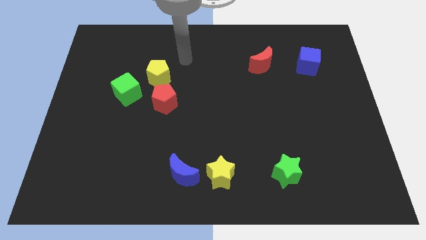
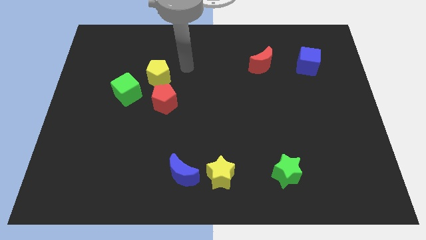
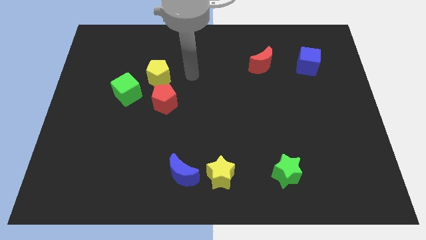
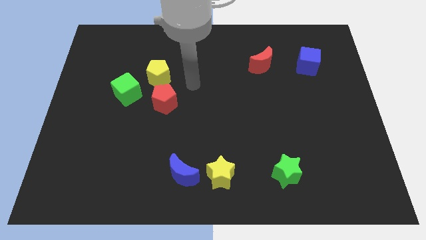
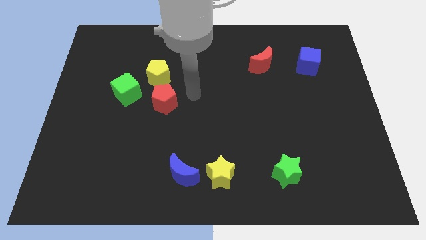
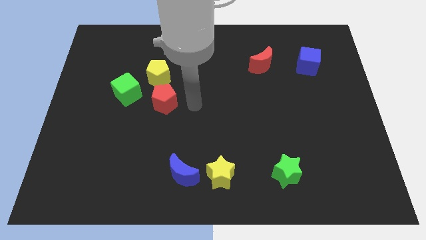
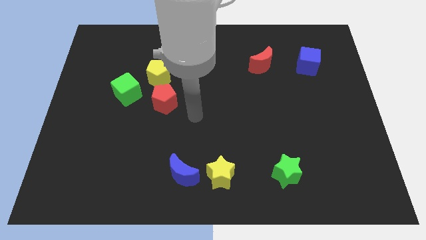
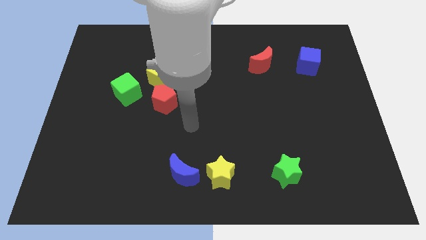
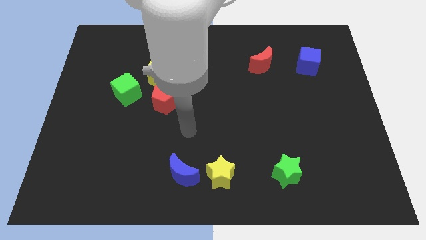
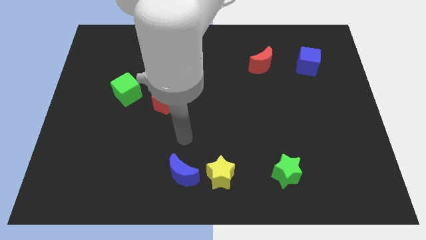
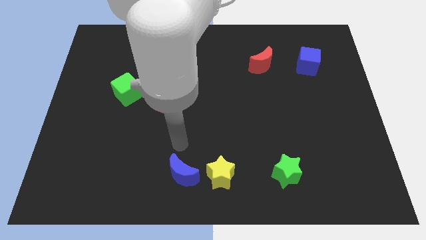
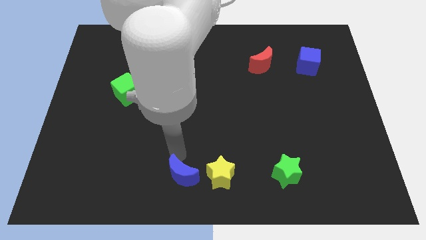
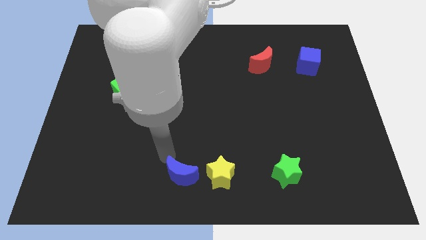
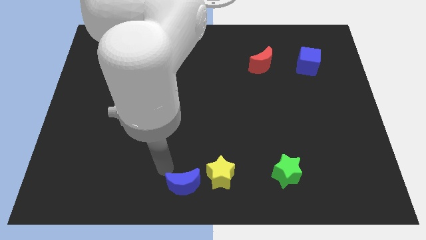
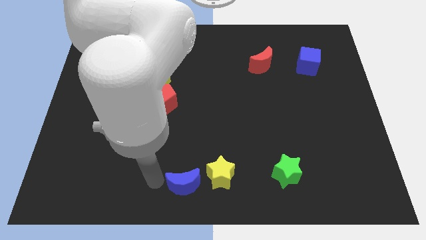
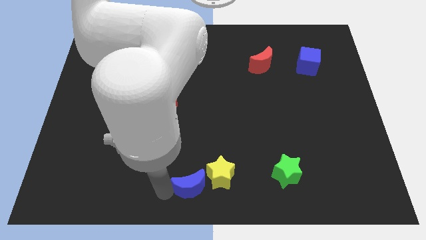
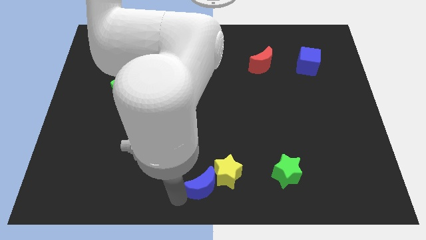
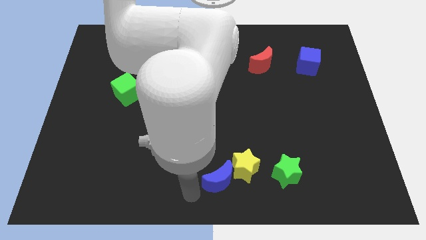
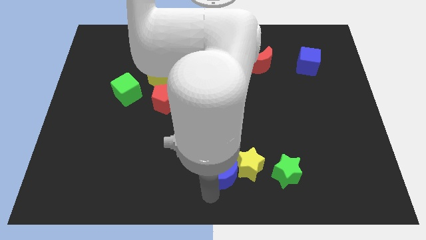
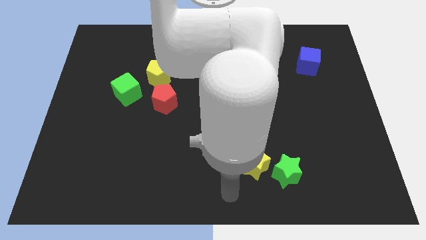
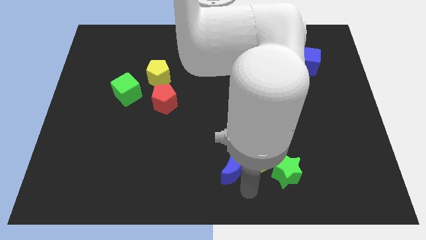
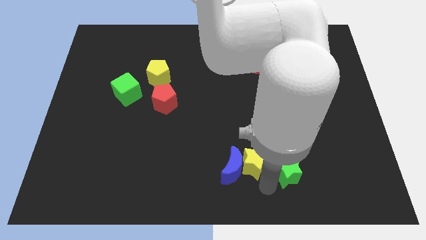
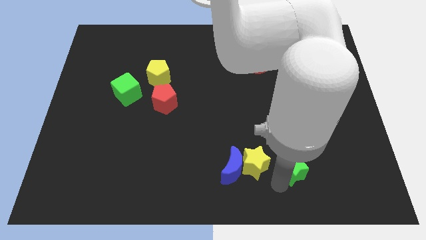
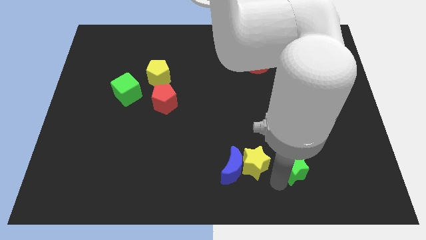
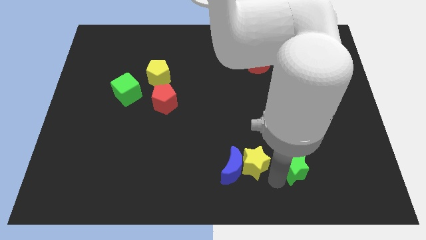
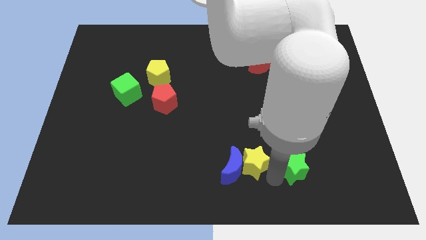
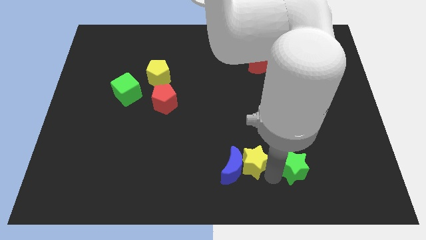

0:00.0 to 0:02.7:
move the yellow star up and to the right diagonally somewhat

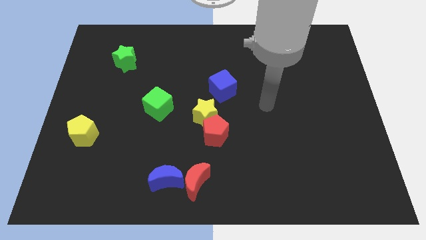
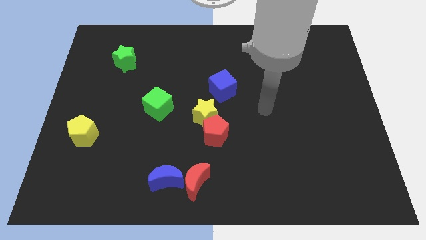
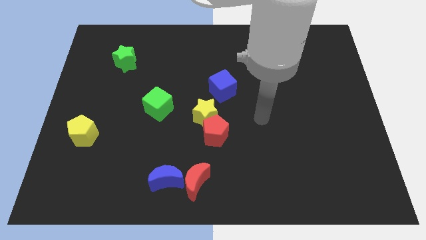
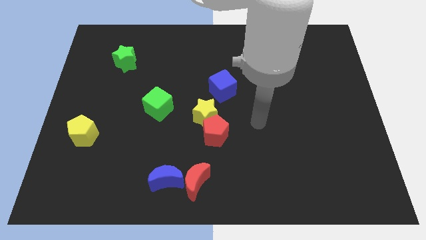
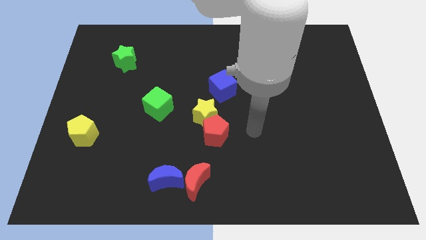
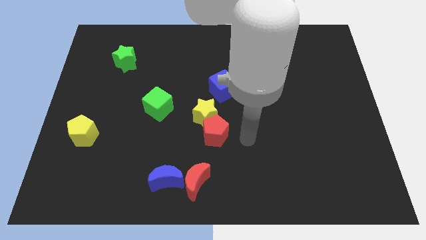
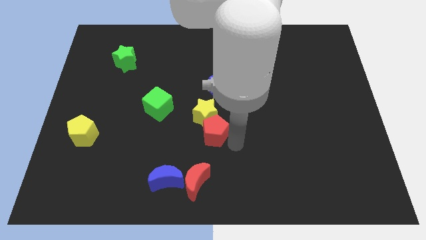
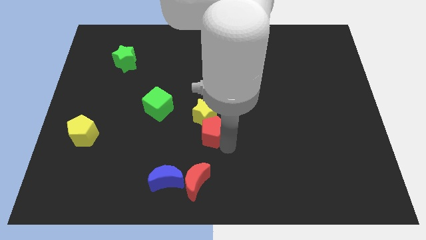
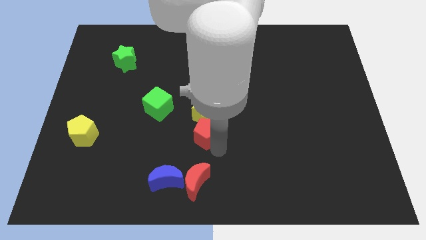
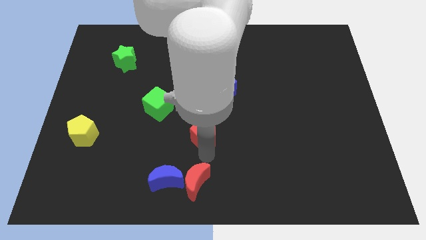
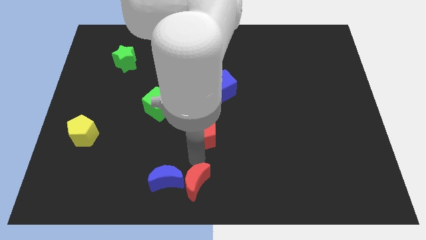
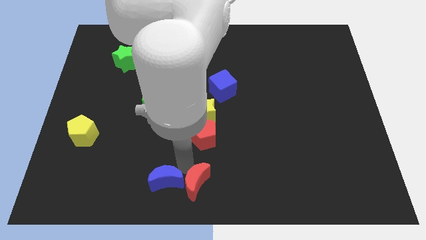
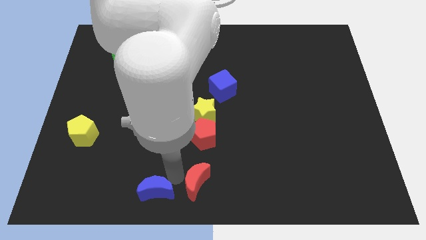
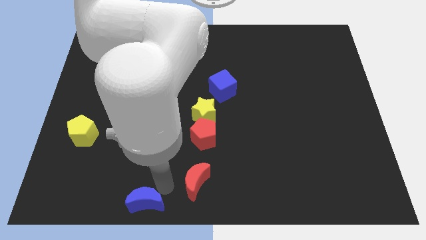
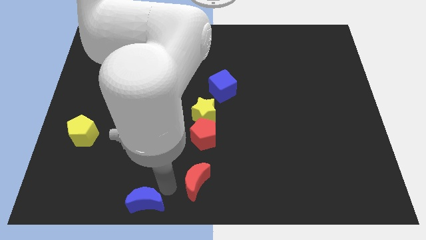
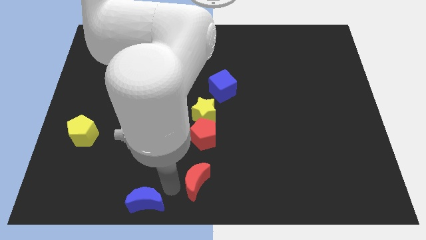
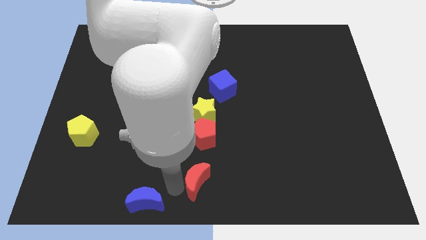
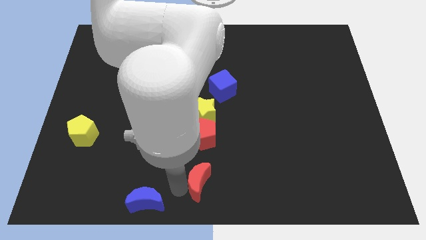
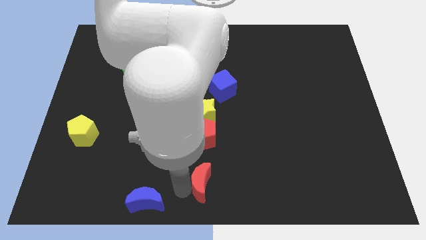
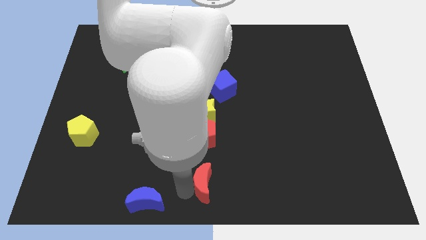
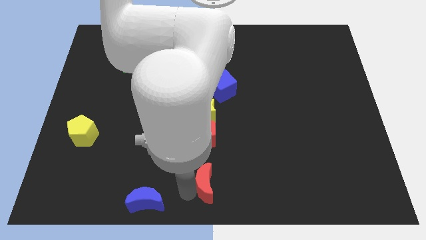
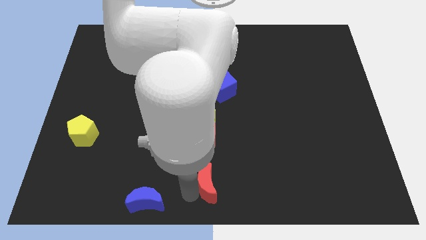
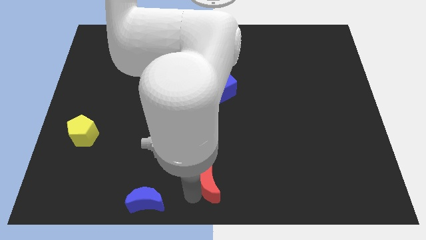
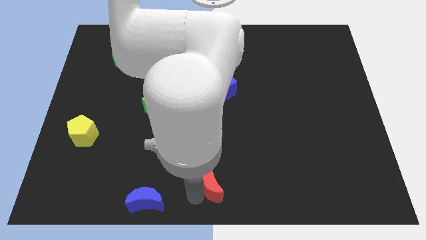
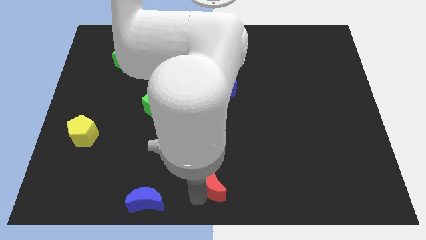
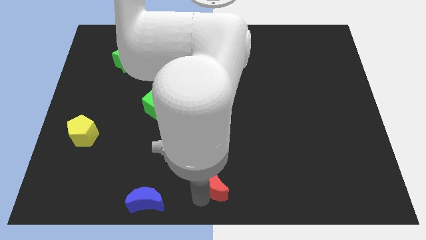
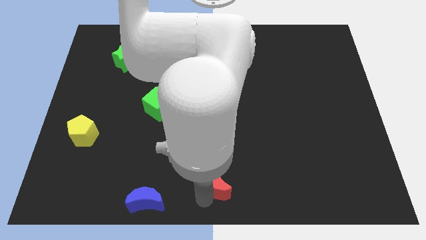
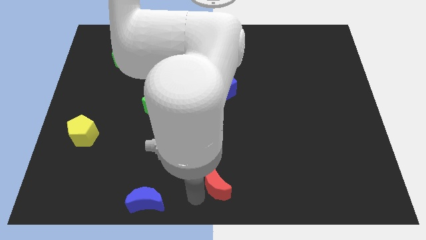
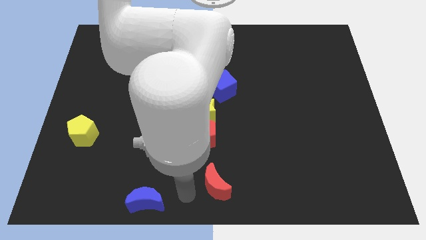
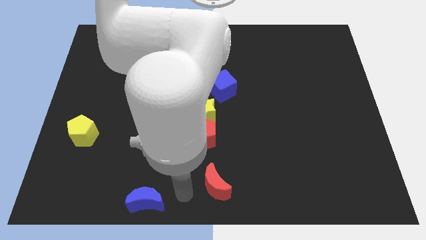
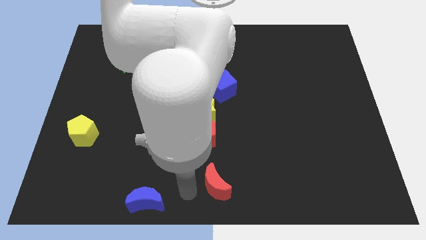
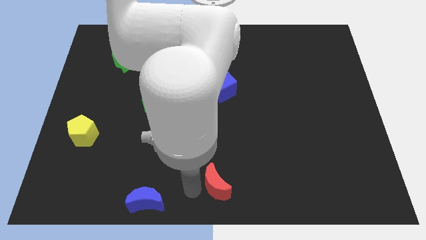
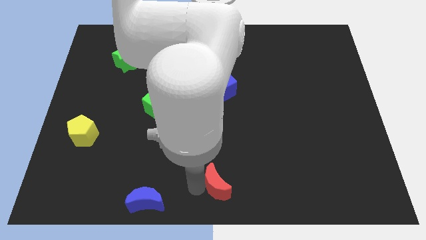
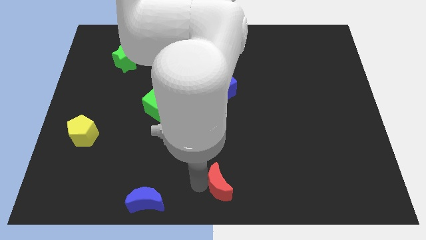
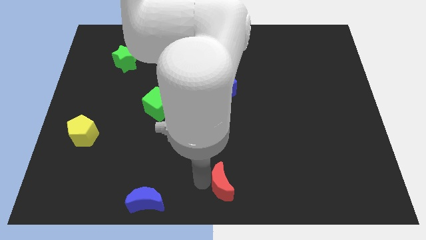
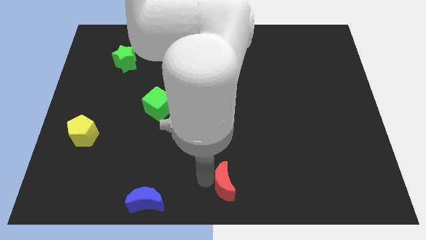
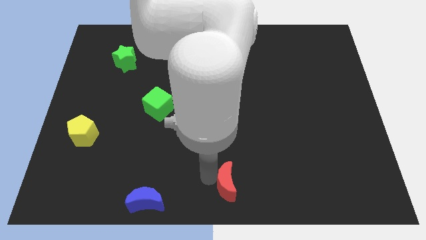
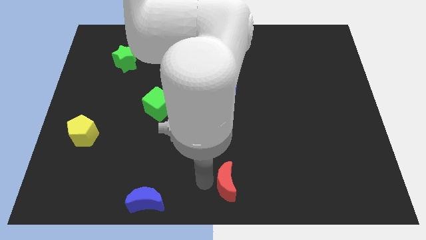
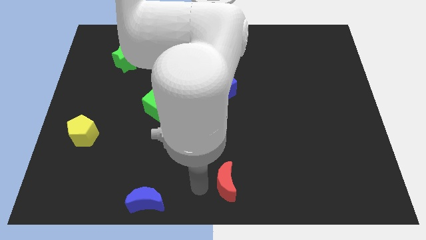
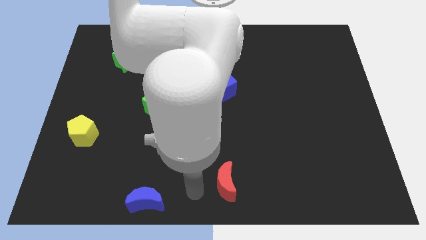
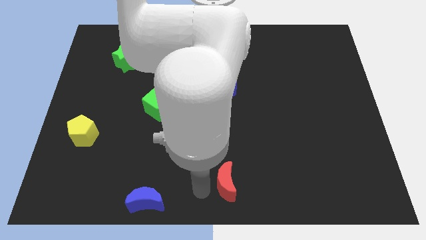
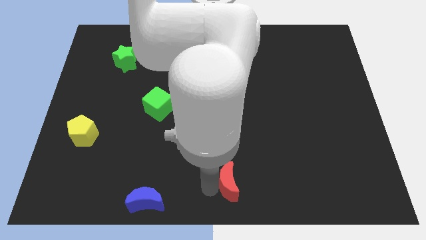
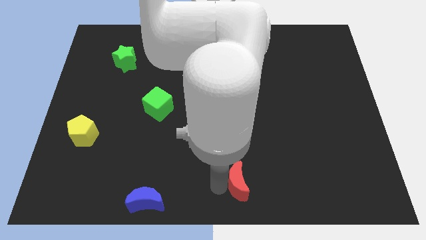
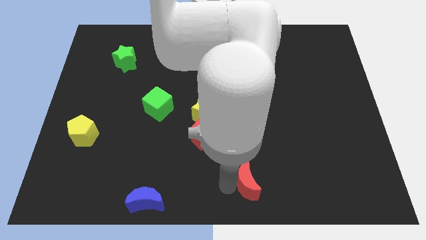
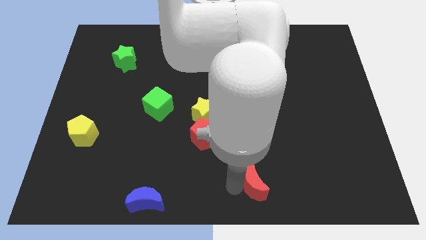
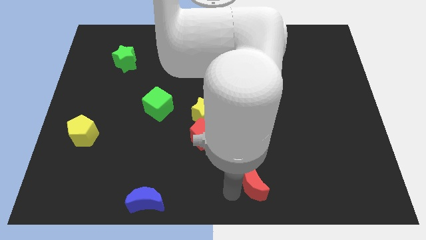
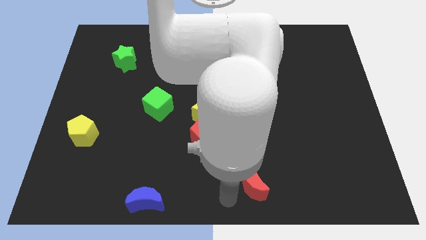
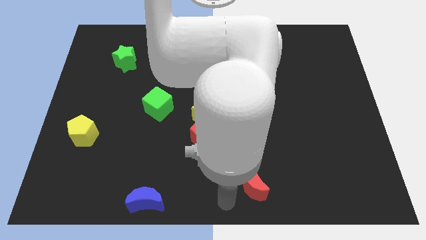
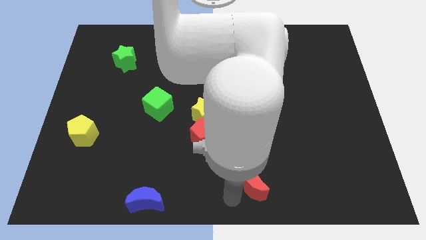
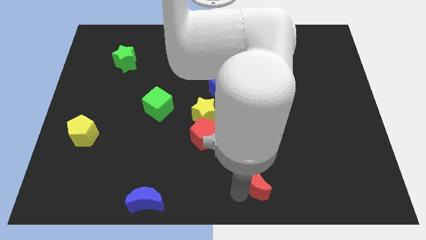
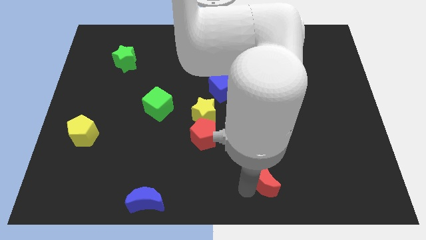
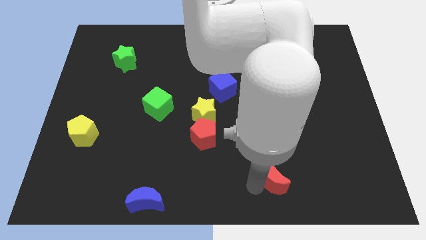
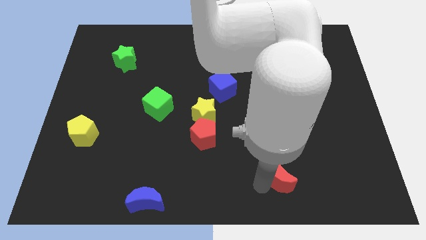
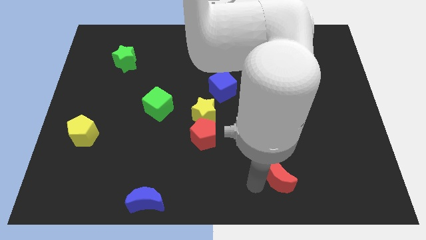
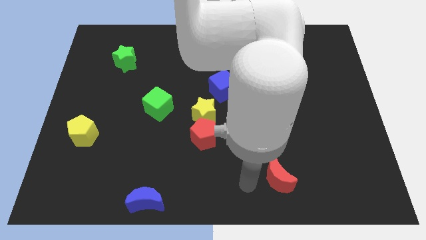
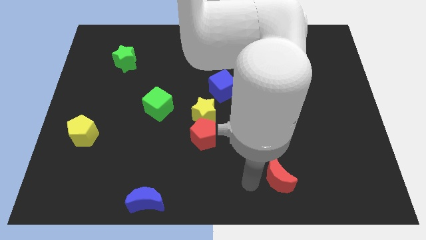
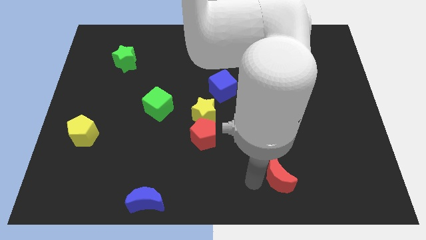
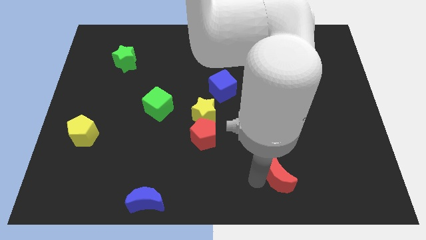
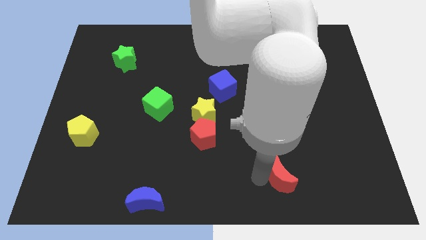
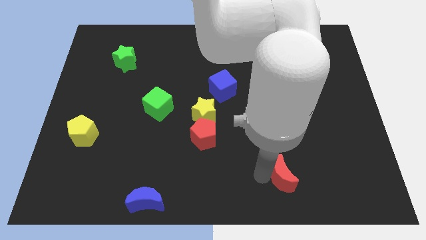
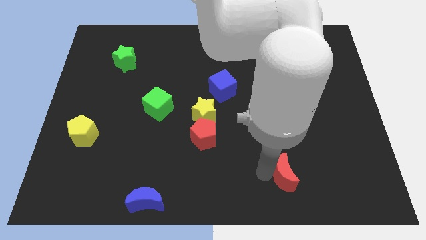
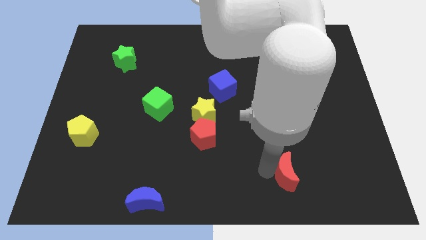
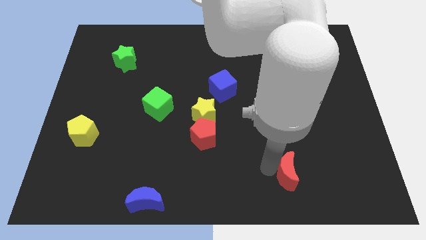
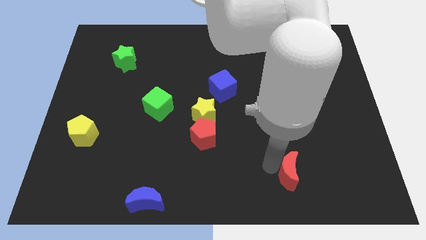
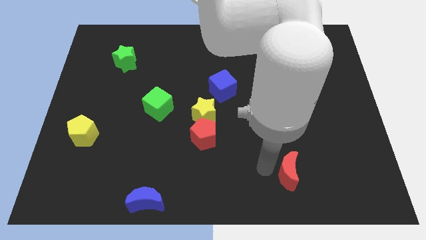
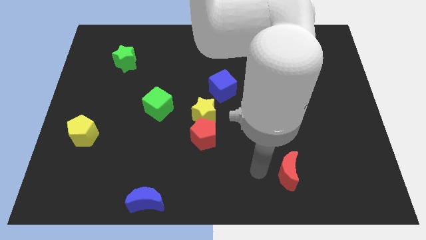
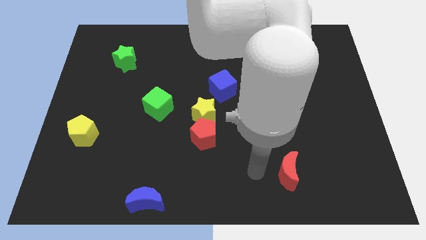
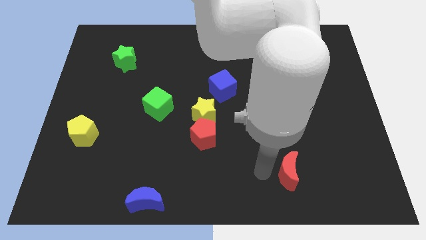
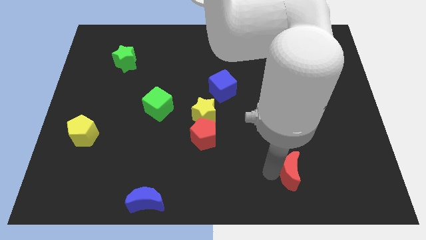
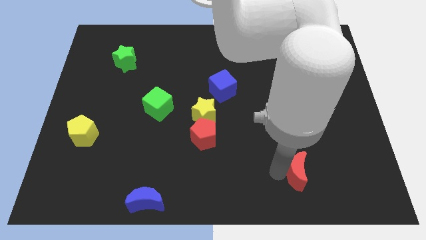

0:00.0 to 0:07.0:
move the red moon right
